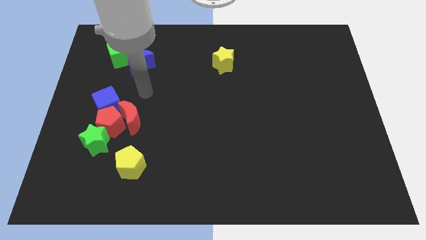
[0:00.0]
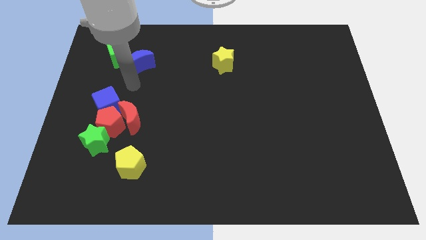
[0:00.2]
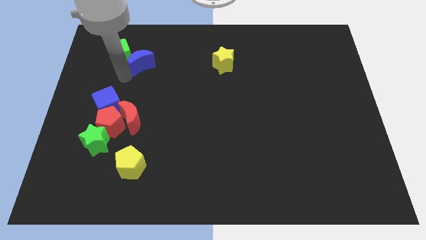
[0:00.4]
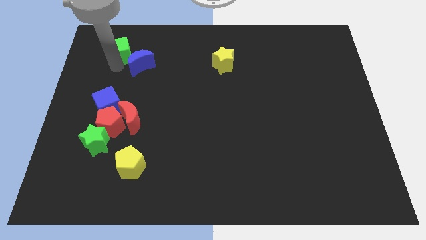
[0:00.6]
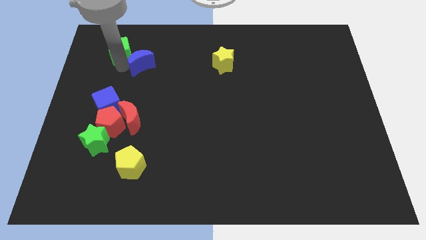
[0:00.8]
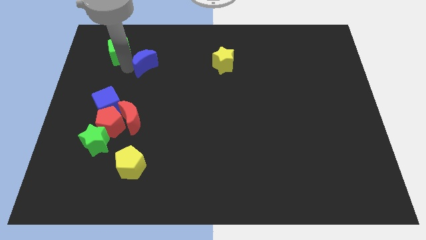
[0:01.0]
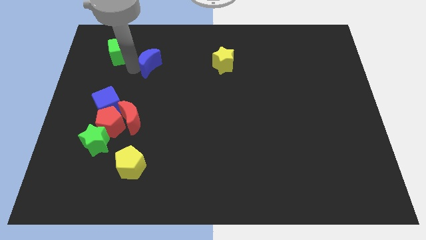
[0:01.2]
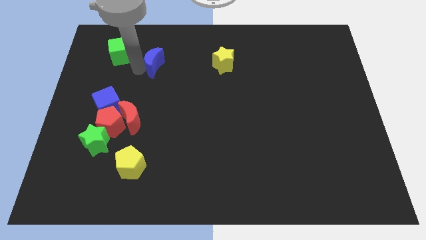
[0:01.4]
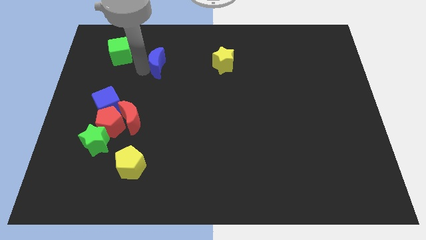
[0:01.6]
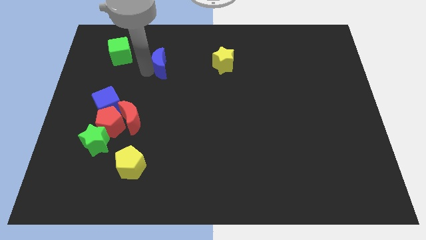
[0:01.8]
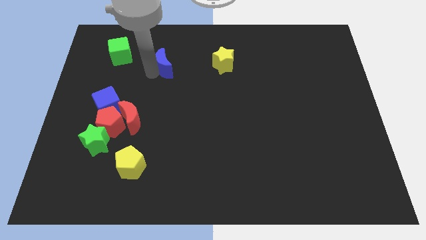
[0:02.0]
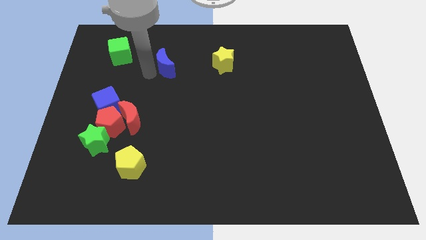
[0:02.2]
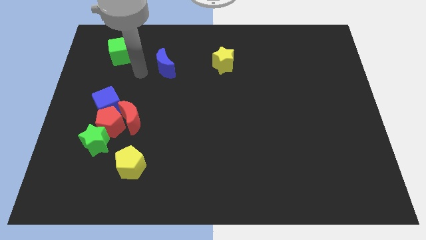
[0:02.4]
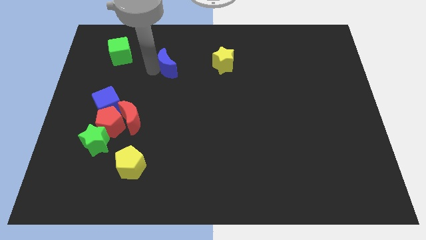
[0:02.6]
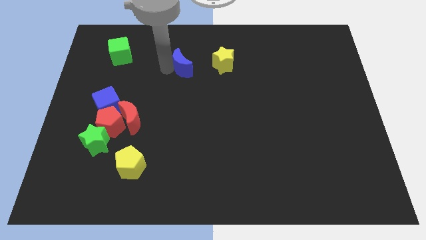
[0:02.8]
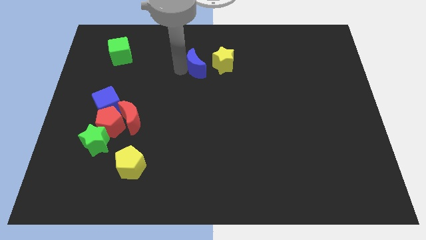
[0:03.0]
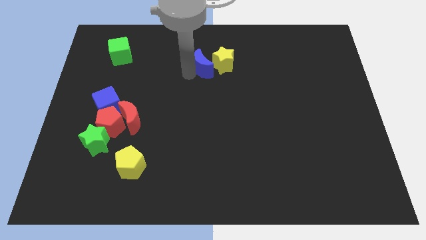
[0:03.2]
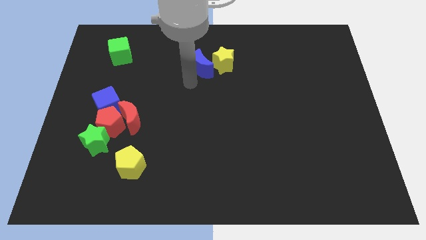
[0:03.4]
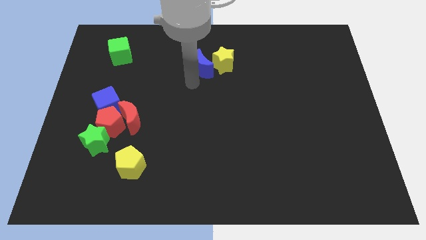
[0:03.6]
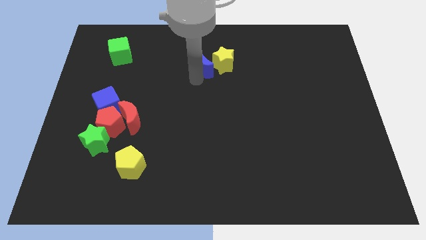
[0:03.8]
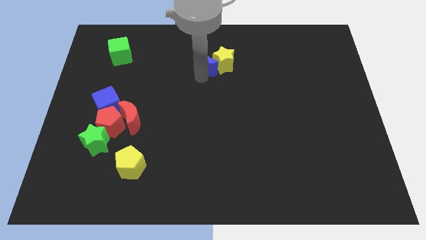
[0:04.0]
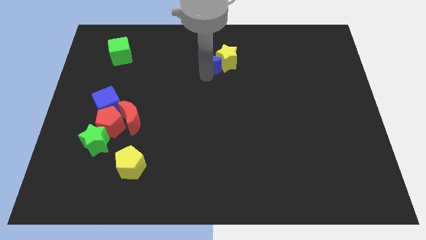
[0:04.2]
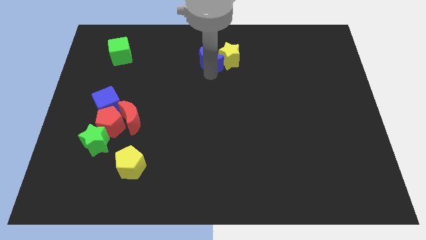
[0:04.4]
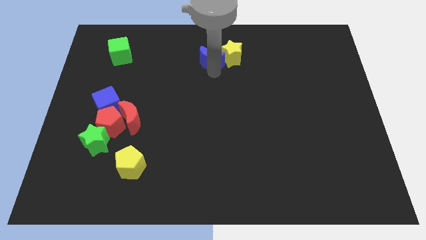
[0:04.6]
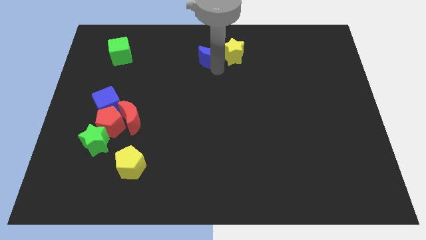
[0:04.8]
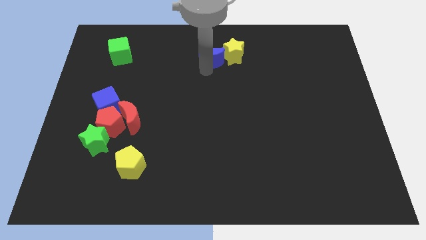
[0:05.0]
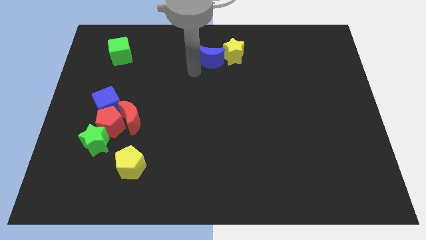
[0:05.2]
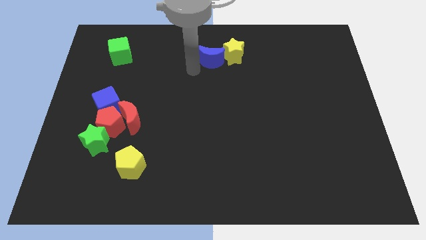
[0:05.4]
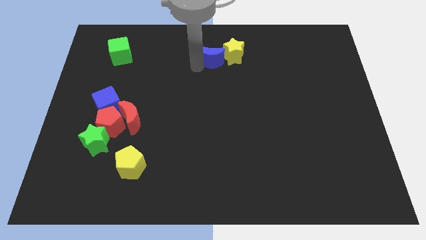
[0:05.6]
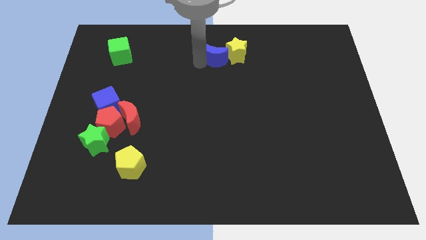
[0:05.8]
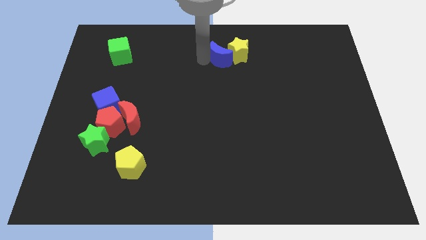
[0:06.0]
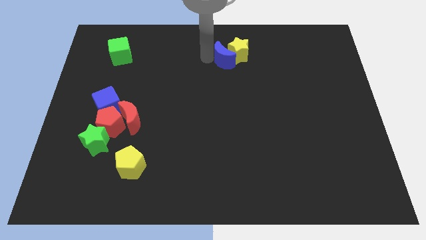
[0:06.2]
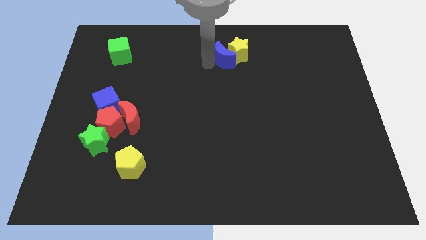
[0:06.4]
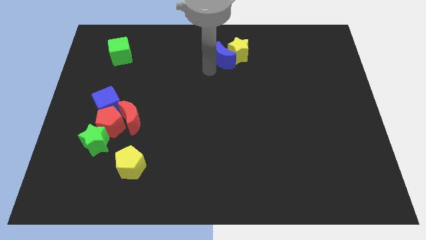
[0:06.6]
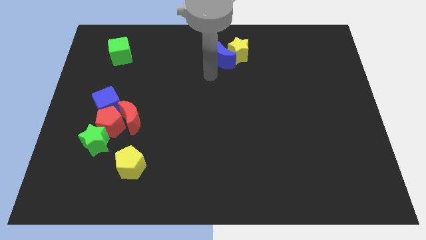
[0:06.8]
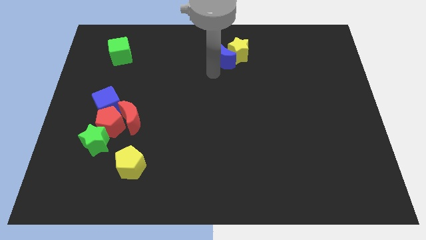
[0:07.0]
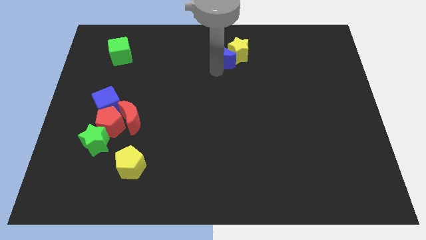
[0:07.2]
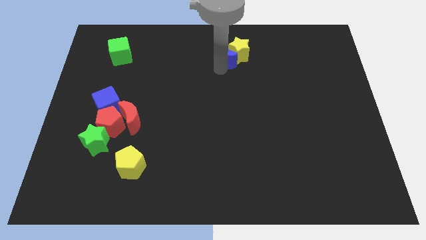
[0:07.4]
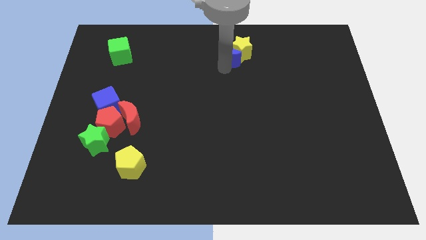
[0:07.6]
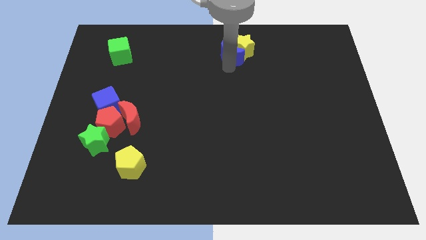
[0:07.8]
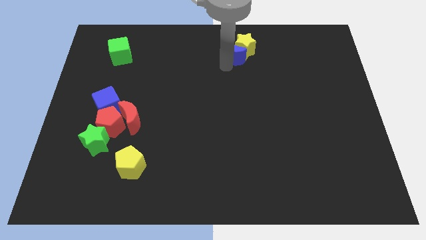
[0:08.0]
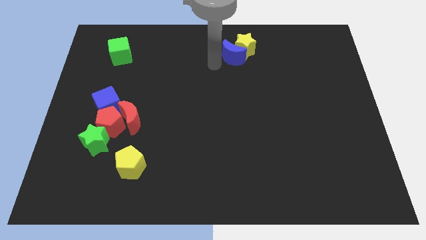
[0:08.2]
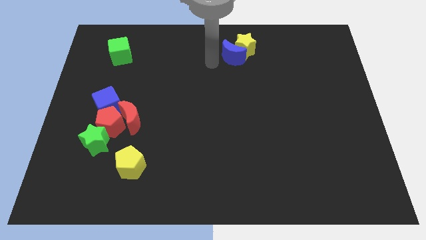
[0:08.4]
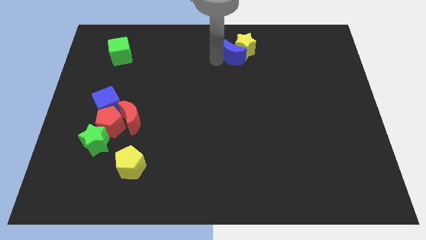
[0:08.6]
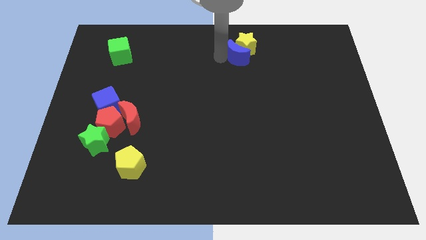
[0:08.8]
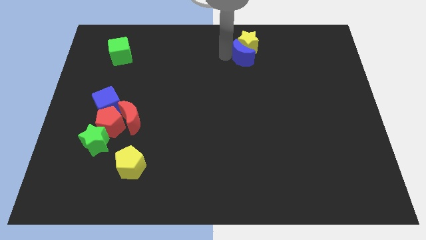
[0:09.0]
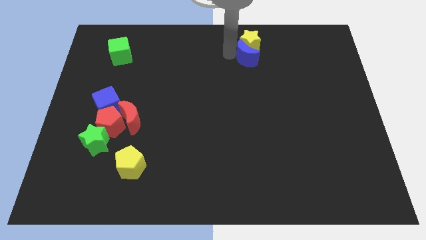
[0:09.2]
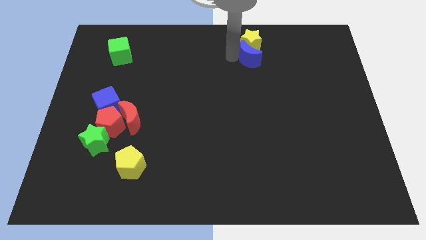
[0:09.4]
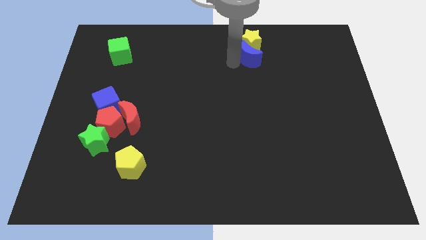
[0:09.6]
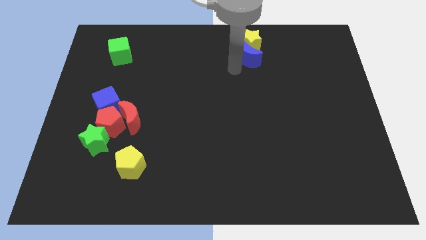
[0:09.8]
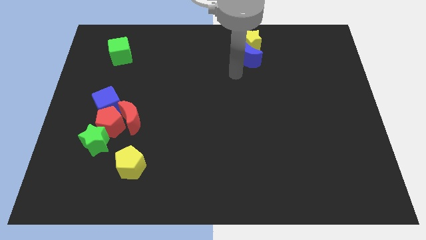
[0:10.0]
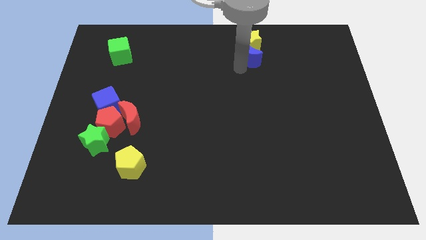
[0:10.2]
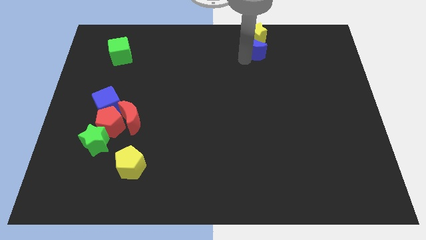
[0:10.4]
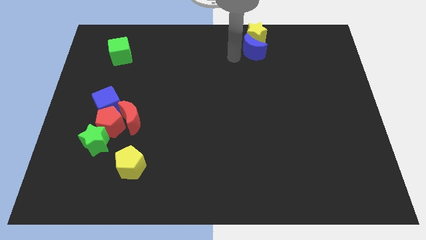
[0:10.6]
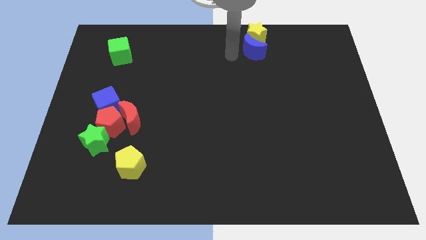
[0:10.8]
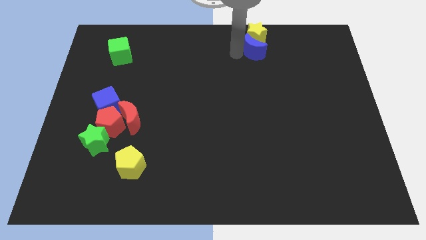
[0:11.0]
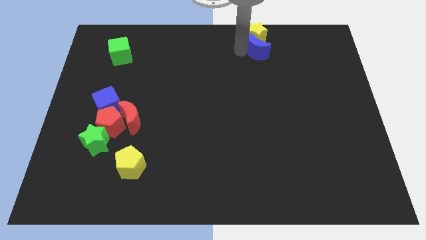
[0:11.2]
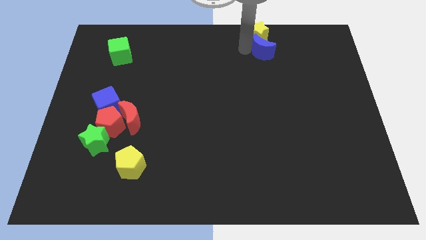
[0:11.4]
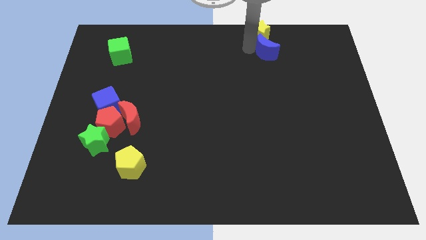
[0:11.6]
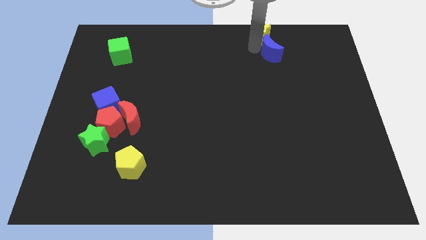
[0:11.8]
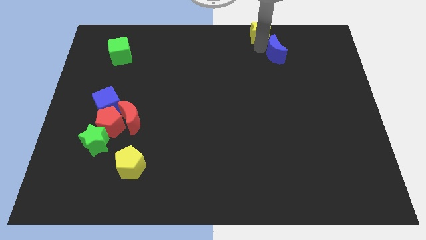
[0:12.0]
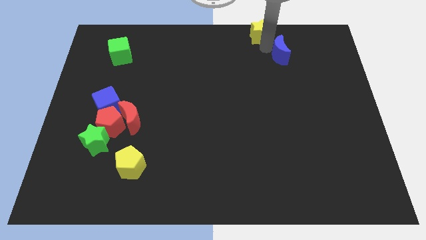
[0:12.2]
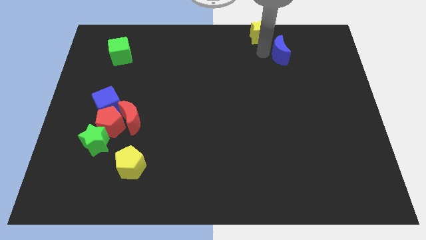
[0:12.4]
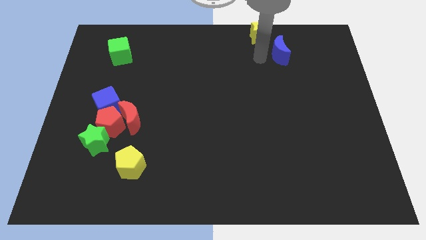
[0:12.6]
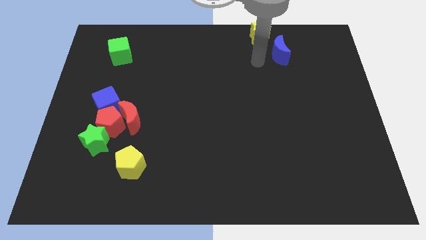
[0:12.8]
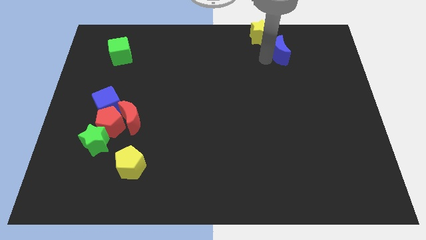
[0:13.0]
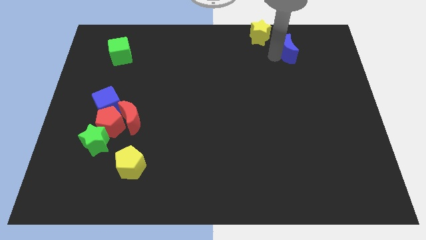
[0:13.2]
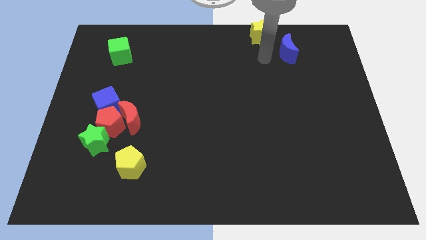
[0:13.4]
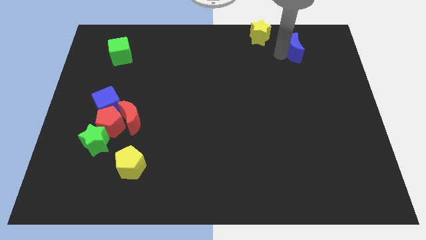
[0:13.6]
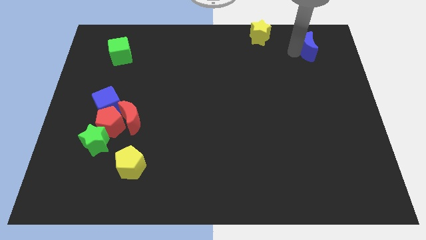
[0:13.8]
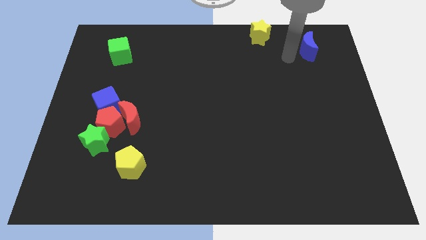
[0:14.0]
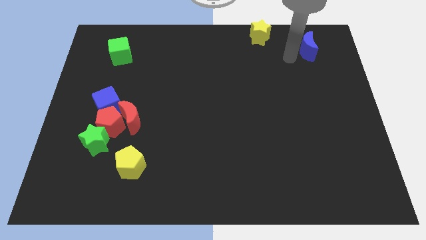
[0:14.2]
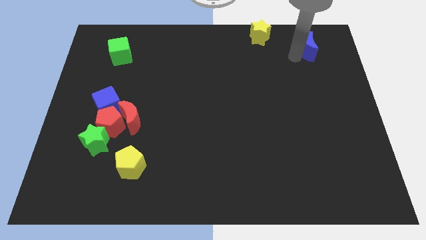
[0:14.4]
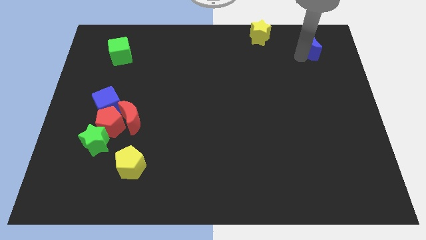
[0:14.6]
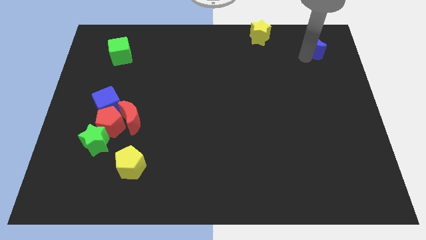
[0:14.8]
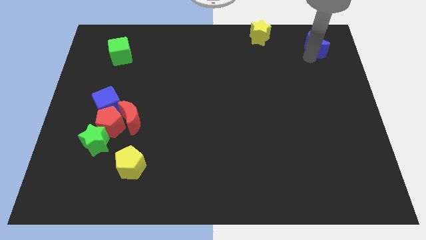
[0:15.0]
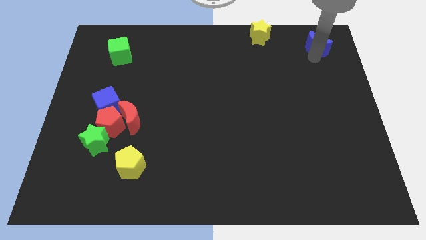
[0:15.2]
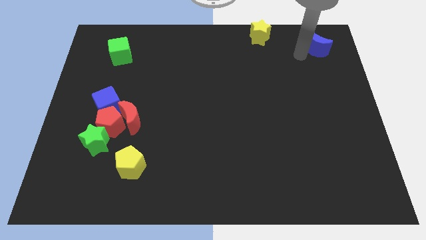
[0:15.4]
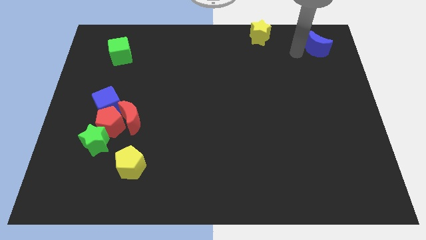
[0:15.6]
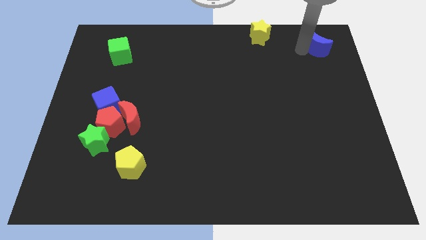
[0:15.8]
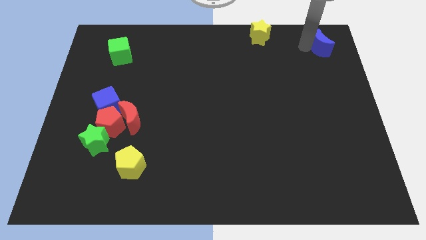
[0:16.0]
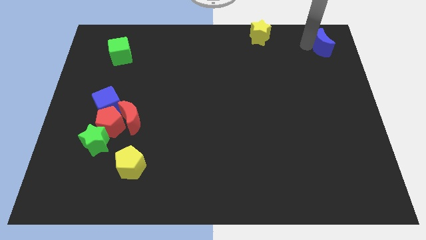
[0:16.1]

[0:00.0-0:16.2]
put the blue moon to the upper right corner
